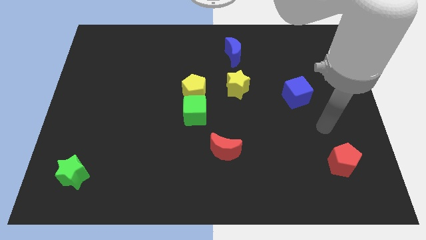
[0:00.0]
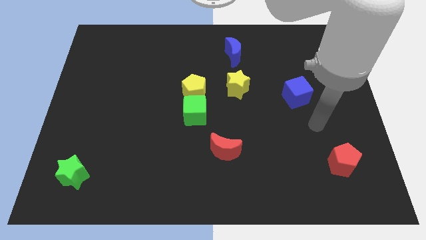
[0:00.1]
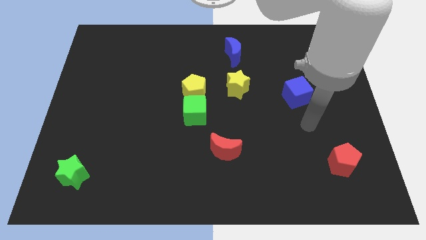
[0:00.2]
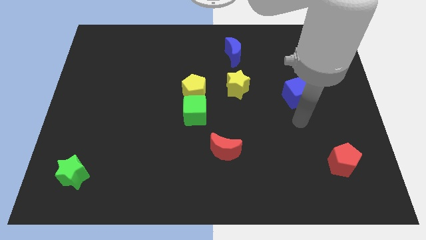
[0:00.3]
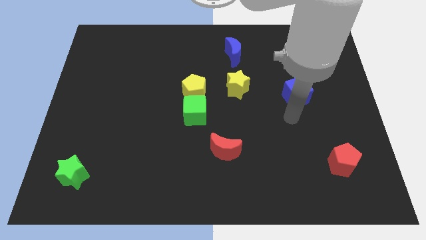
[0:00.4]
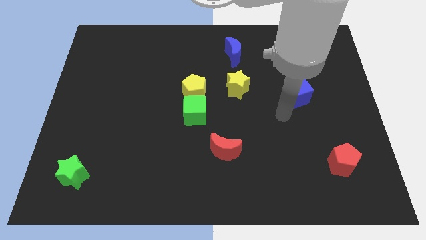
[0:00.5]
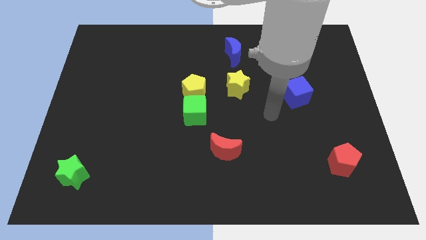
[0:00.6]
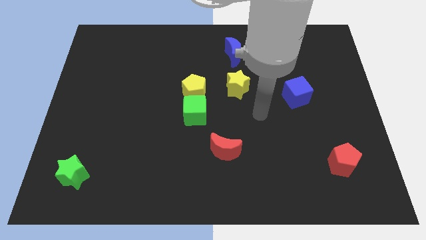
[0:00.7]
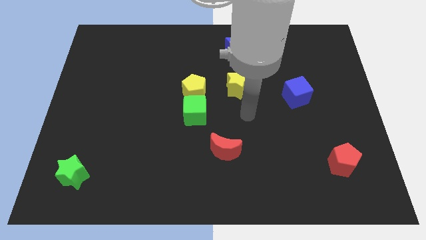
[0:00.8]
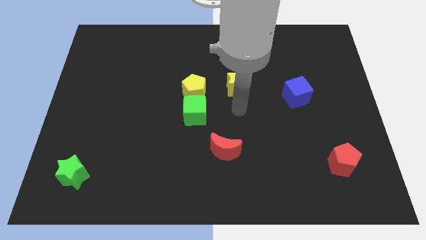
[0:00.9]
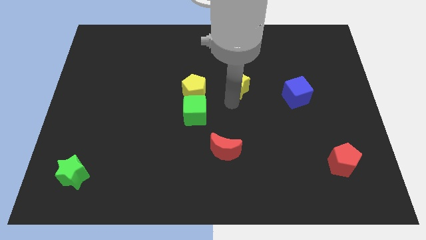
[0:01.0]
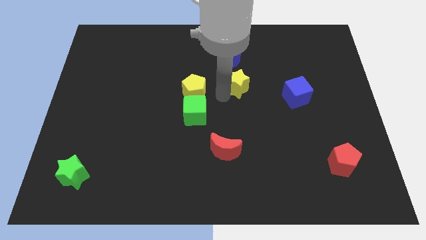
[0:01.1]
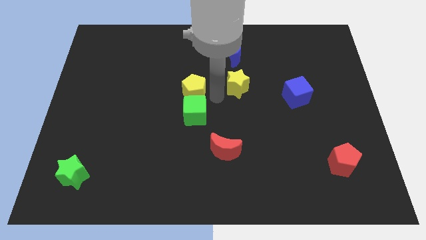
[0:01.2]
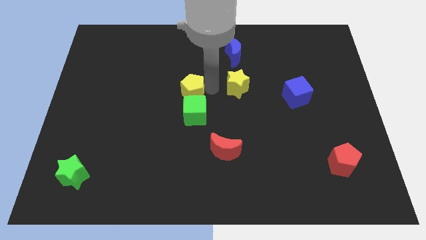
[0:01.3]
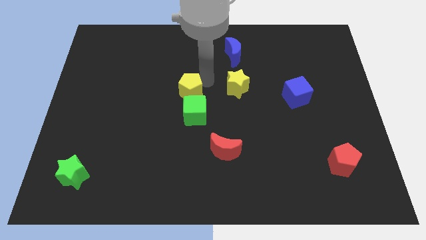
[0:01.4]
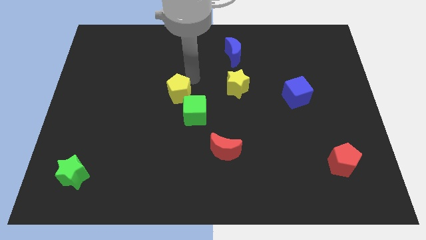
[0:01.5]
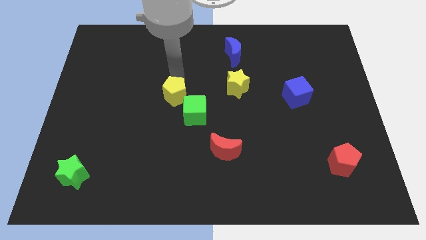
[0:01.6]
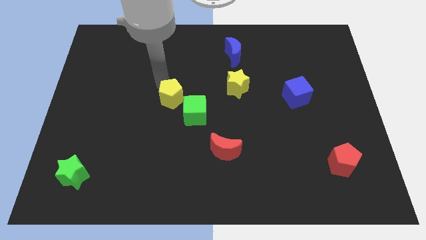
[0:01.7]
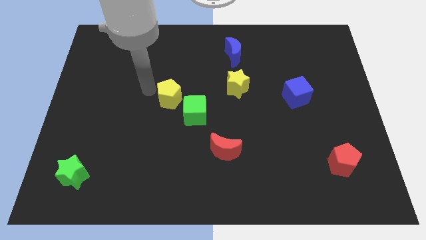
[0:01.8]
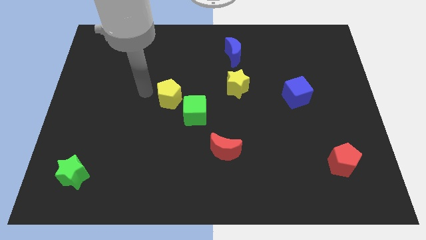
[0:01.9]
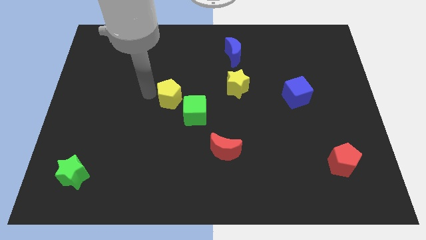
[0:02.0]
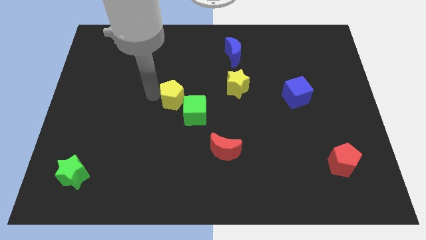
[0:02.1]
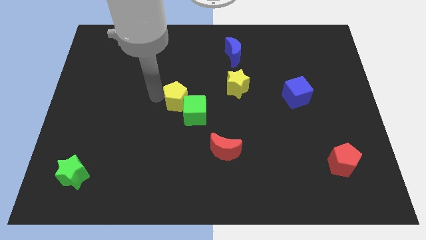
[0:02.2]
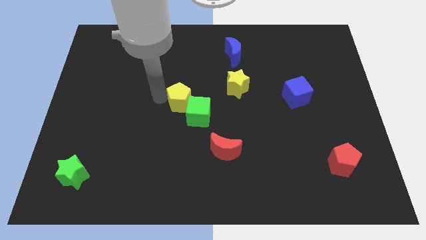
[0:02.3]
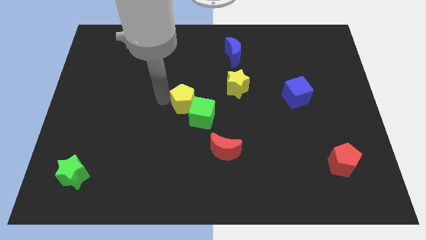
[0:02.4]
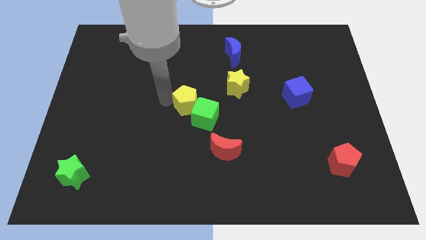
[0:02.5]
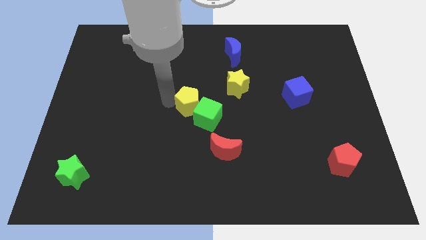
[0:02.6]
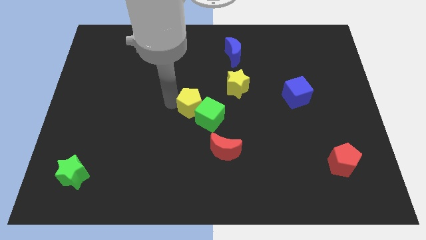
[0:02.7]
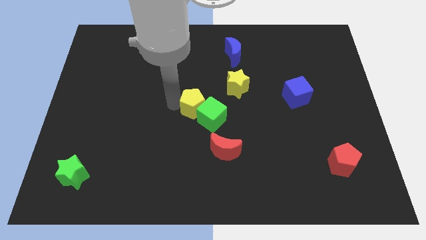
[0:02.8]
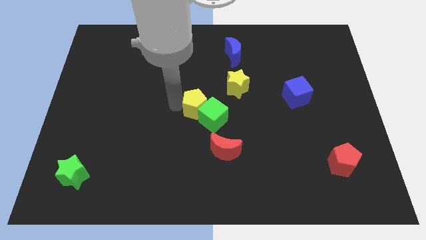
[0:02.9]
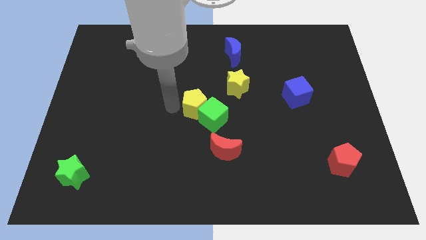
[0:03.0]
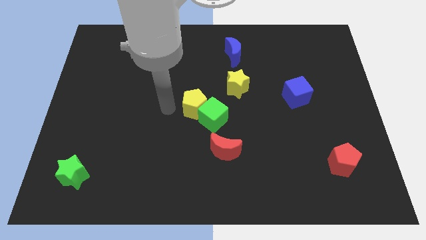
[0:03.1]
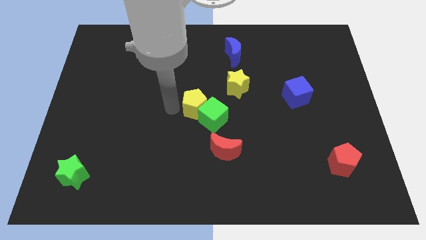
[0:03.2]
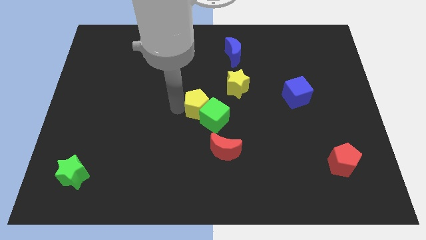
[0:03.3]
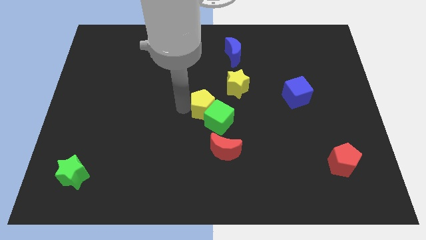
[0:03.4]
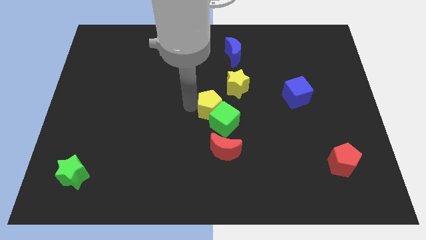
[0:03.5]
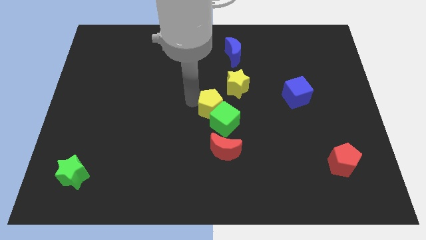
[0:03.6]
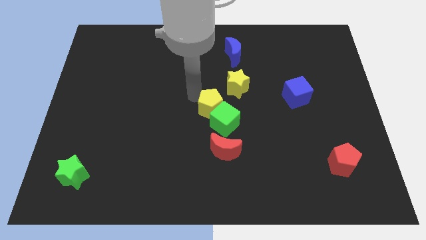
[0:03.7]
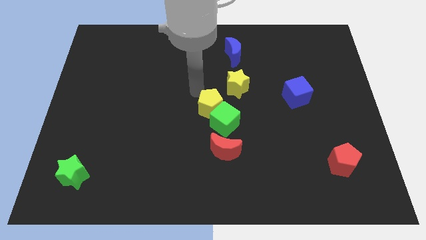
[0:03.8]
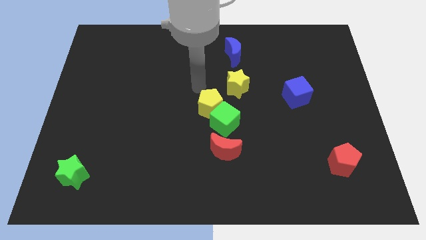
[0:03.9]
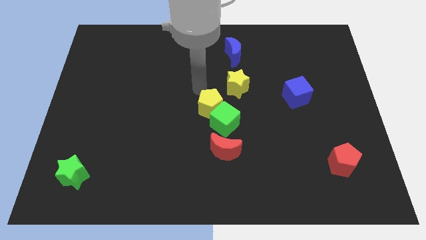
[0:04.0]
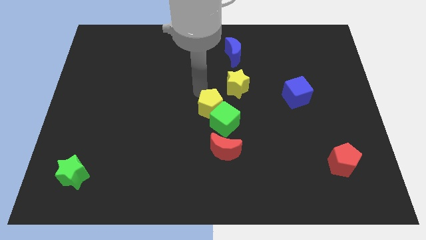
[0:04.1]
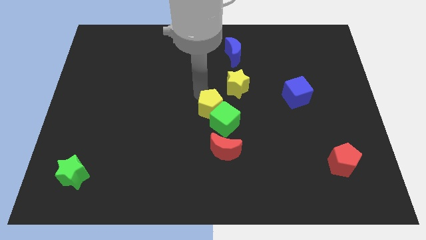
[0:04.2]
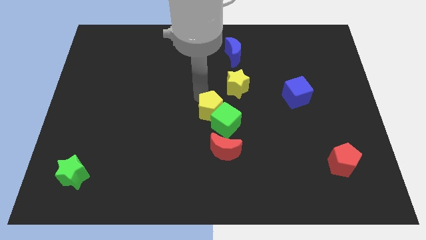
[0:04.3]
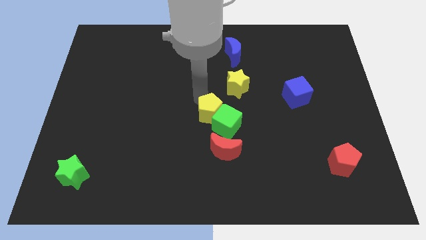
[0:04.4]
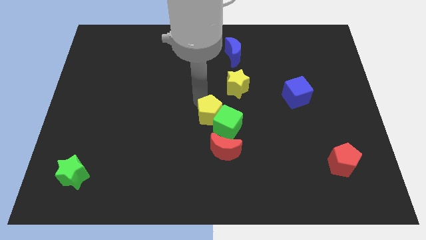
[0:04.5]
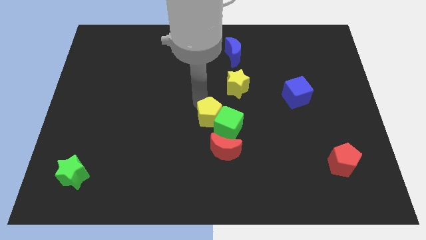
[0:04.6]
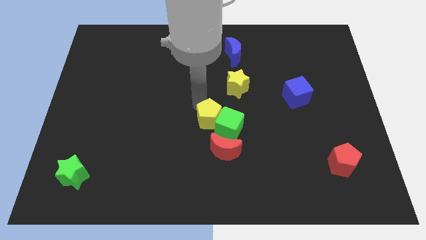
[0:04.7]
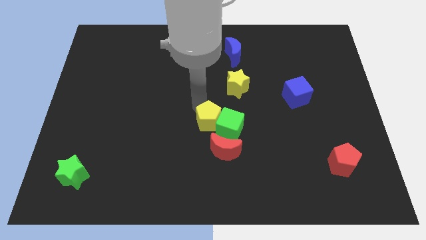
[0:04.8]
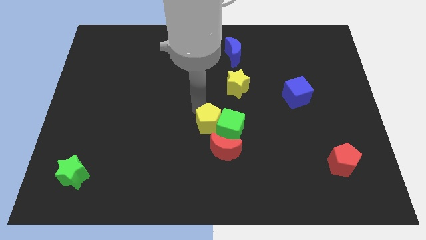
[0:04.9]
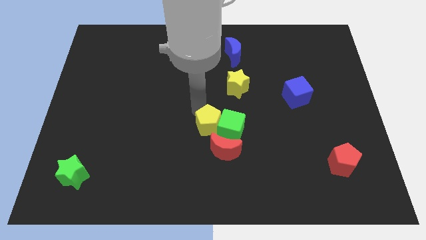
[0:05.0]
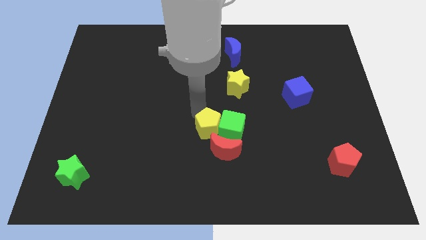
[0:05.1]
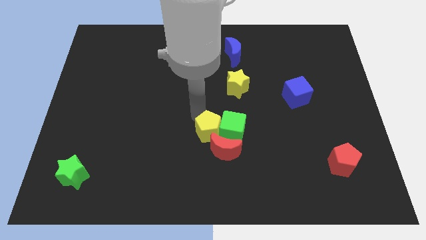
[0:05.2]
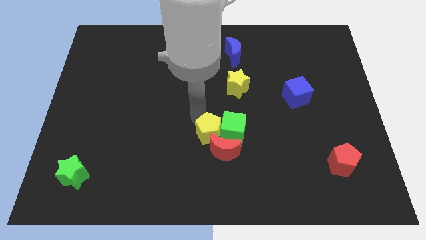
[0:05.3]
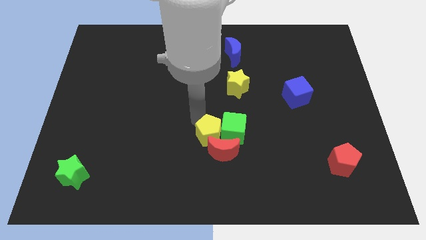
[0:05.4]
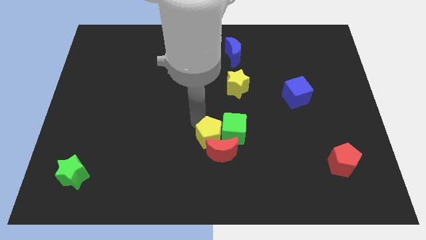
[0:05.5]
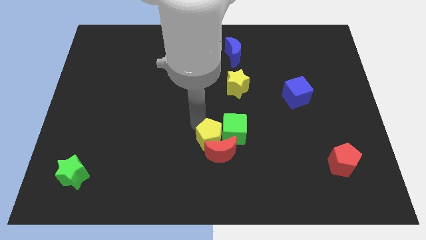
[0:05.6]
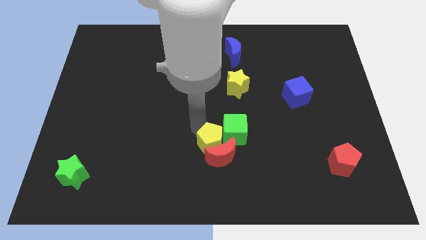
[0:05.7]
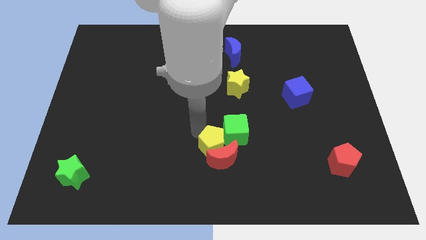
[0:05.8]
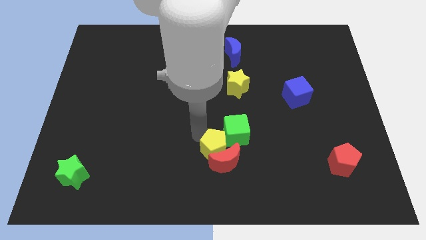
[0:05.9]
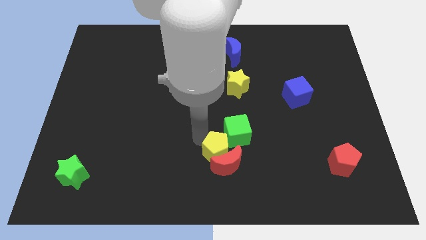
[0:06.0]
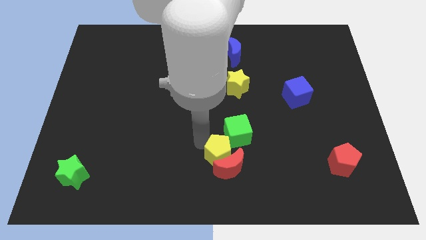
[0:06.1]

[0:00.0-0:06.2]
push the yellow pentagon to the bottom

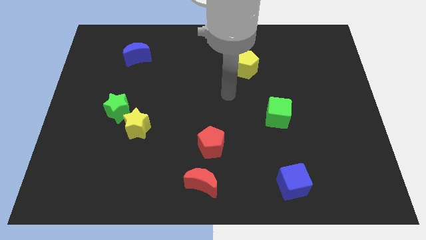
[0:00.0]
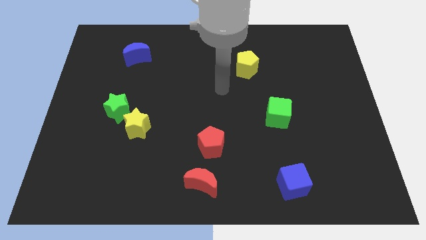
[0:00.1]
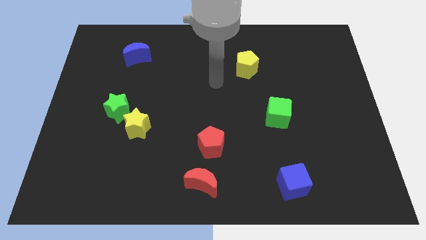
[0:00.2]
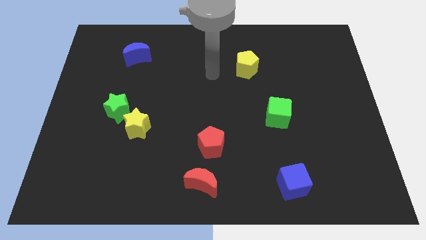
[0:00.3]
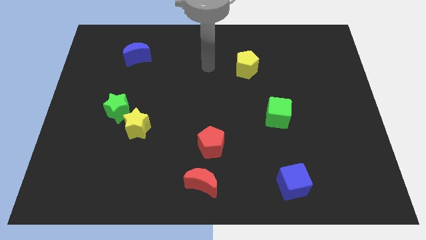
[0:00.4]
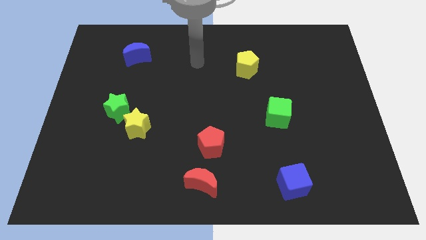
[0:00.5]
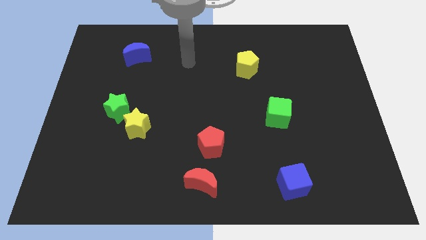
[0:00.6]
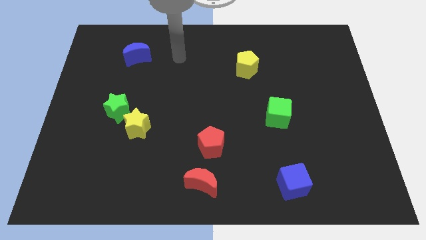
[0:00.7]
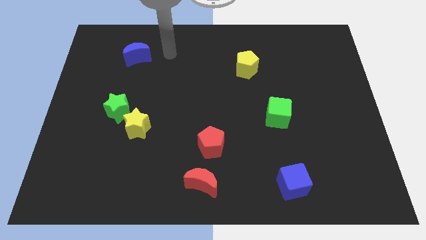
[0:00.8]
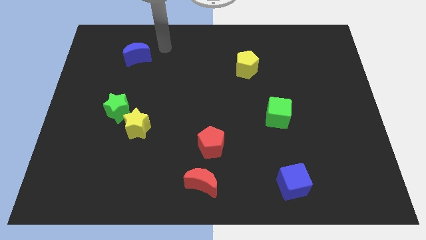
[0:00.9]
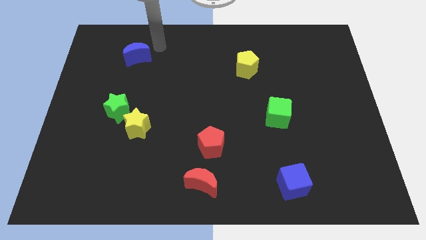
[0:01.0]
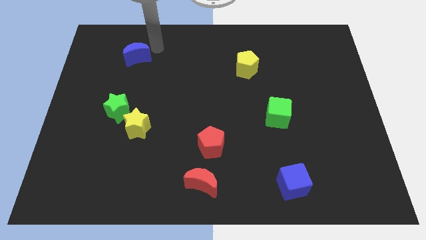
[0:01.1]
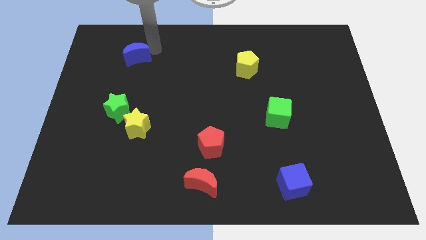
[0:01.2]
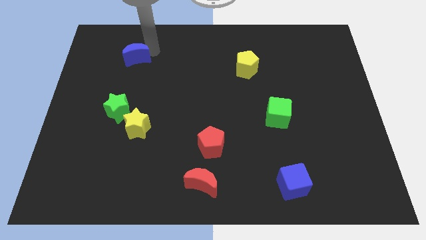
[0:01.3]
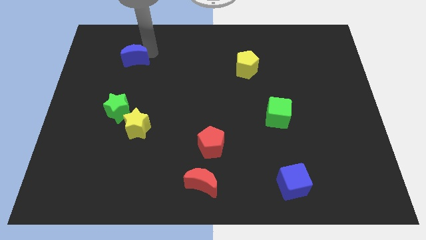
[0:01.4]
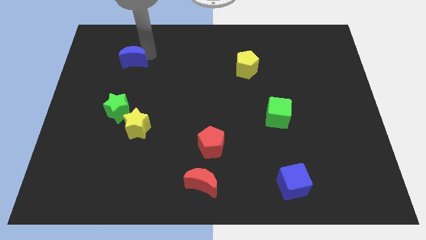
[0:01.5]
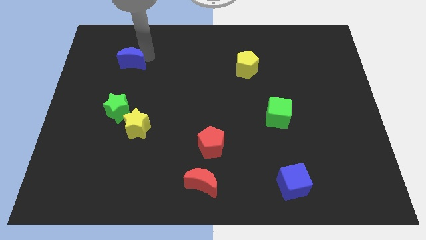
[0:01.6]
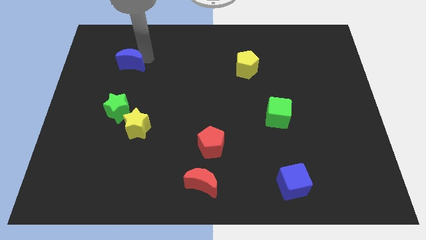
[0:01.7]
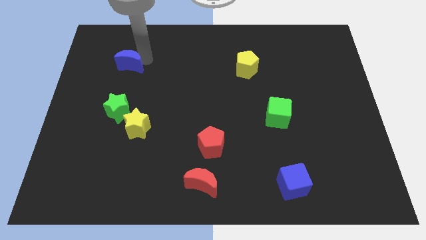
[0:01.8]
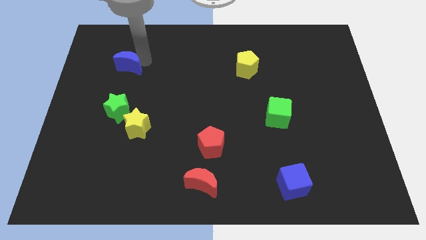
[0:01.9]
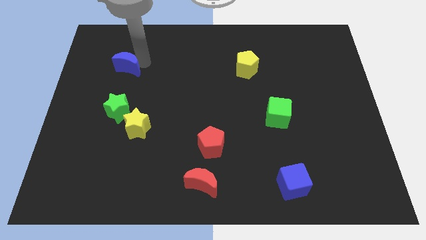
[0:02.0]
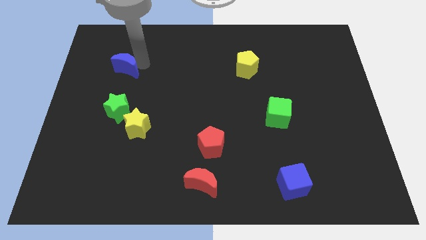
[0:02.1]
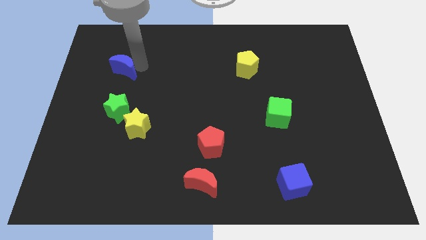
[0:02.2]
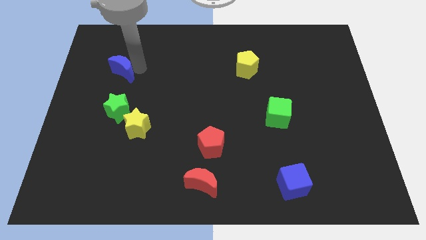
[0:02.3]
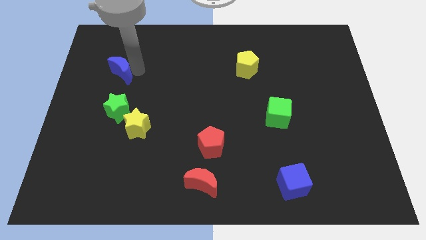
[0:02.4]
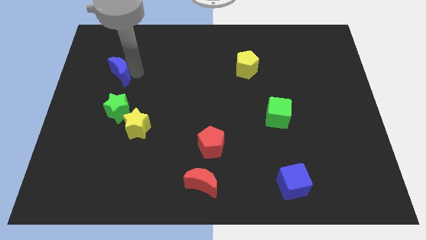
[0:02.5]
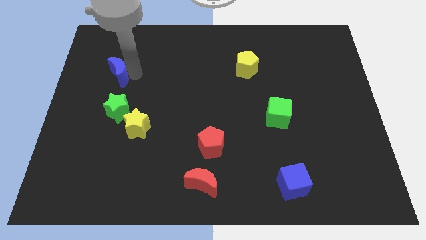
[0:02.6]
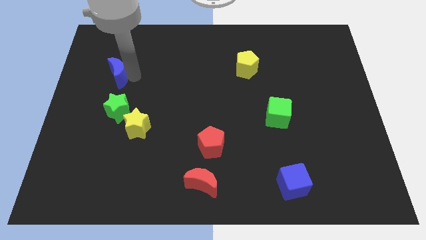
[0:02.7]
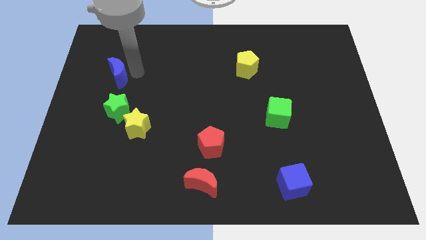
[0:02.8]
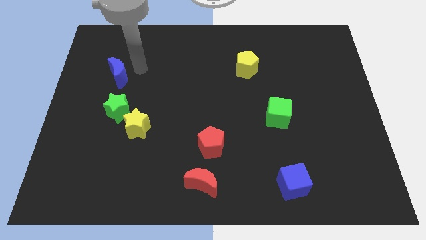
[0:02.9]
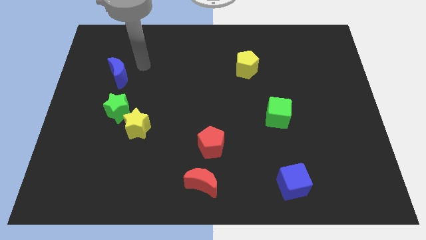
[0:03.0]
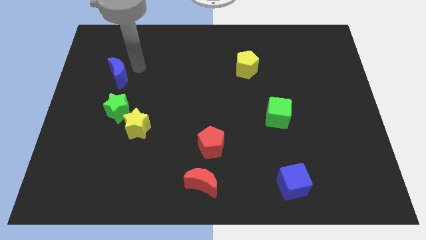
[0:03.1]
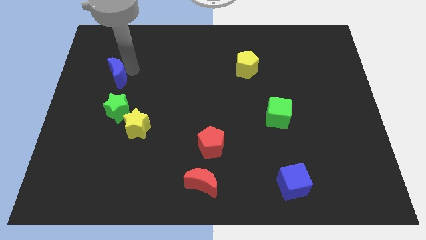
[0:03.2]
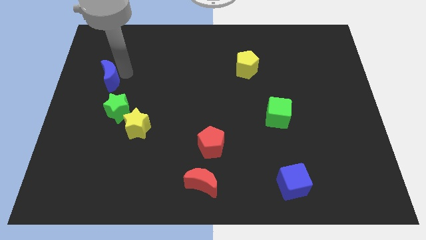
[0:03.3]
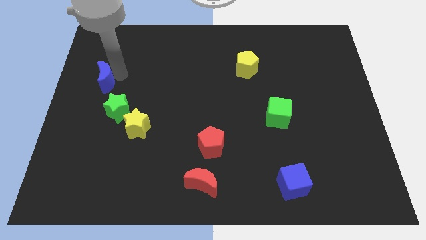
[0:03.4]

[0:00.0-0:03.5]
move the blue moon to the center left
